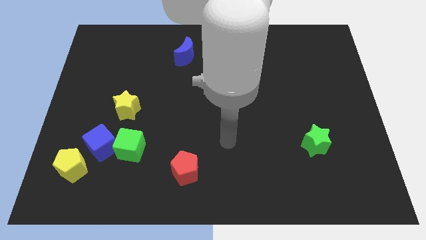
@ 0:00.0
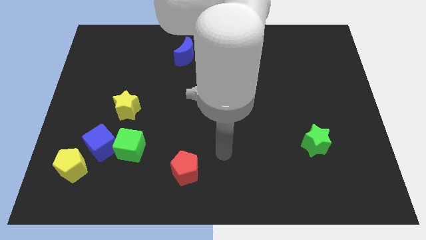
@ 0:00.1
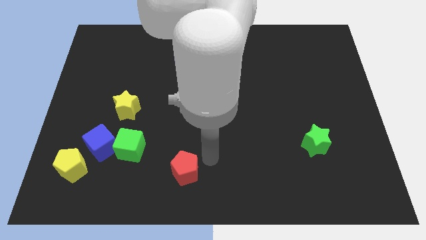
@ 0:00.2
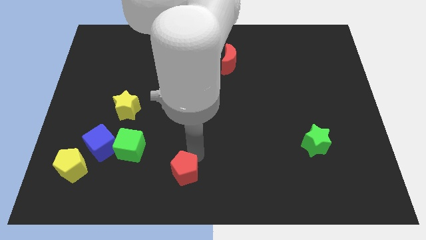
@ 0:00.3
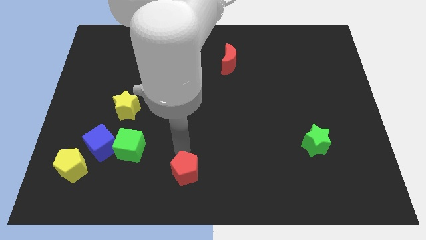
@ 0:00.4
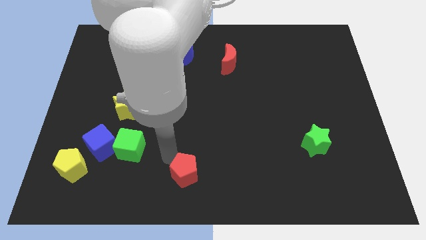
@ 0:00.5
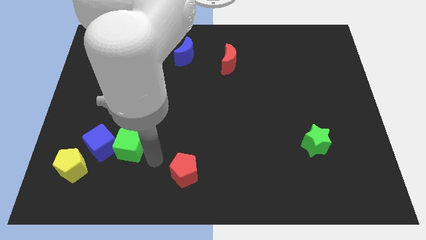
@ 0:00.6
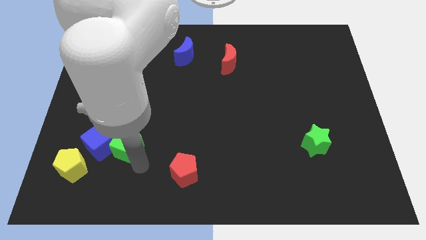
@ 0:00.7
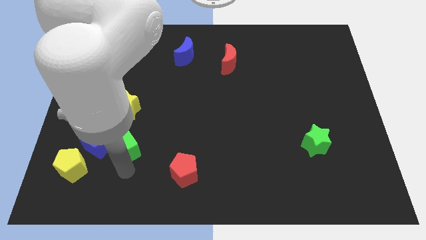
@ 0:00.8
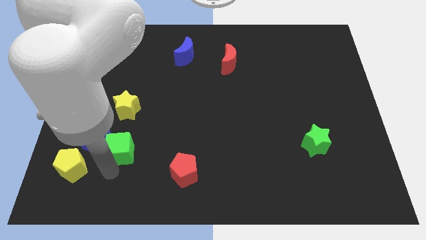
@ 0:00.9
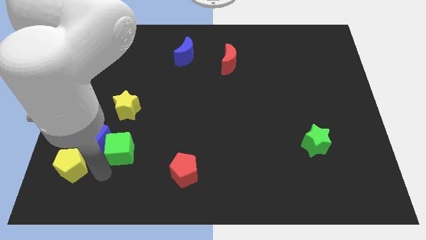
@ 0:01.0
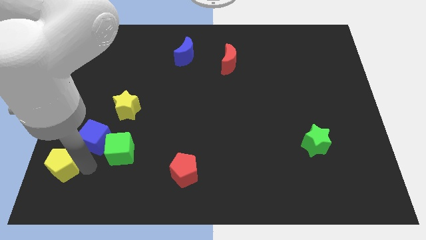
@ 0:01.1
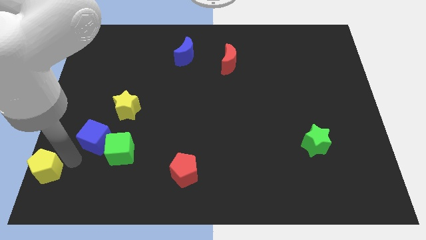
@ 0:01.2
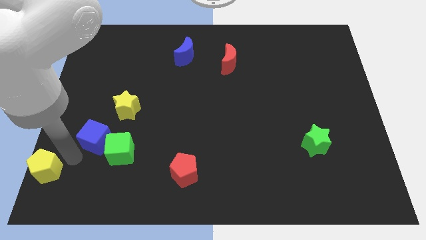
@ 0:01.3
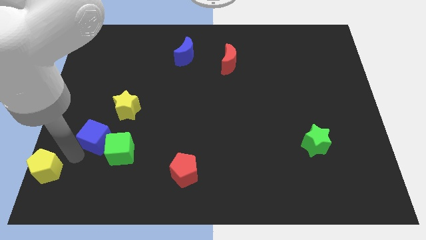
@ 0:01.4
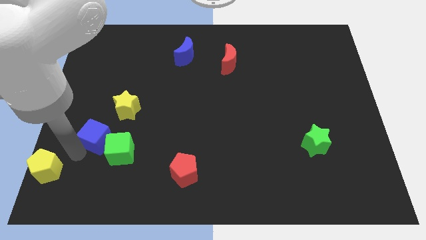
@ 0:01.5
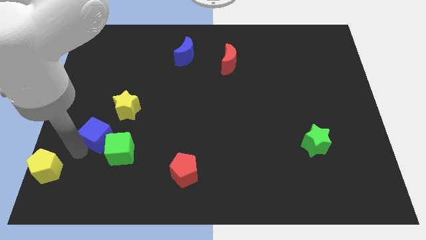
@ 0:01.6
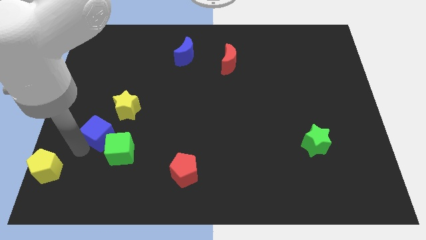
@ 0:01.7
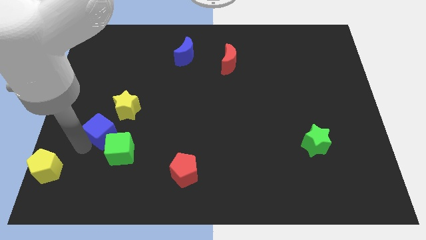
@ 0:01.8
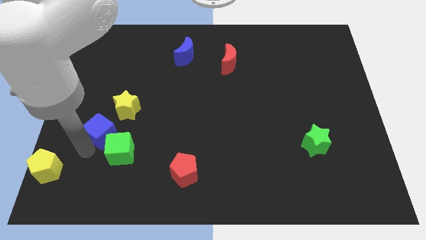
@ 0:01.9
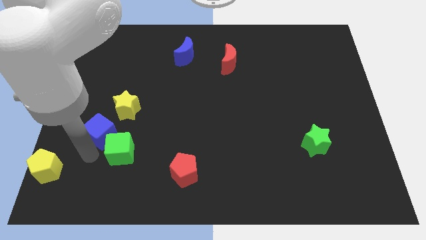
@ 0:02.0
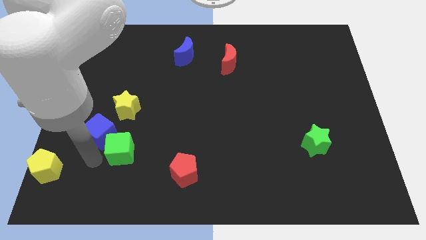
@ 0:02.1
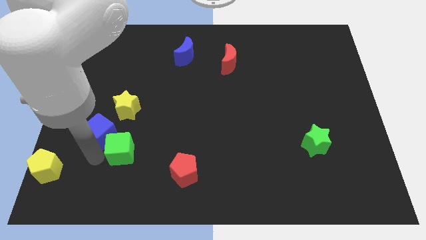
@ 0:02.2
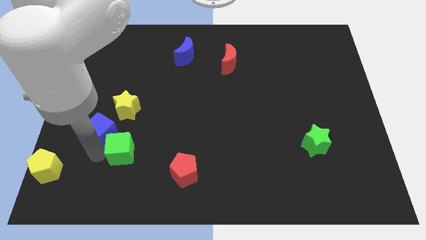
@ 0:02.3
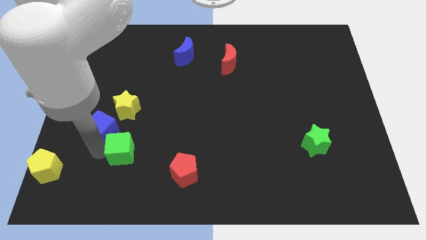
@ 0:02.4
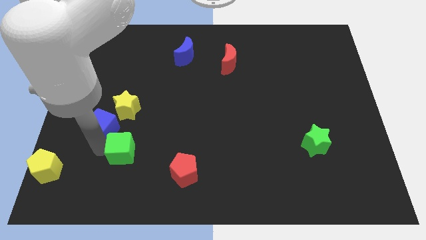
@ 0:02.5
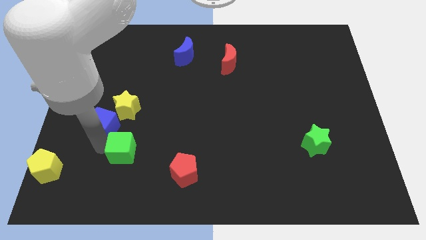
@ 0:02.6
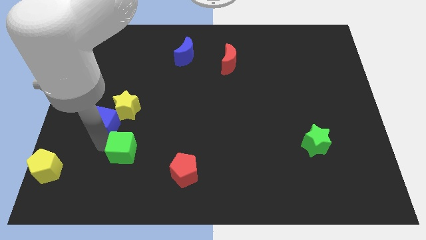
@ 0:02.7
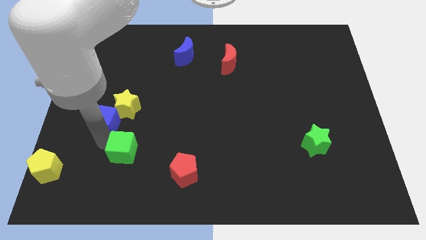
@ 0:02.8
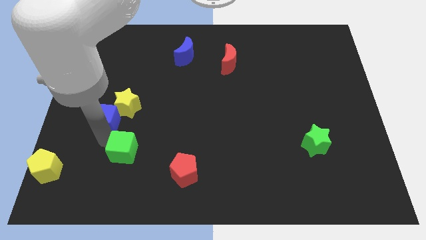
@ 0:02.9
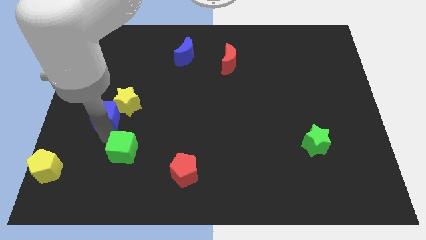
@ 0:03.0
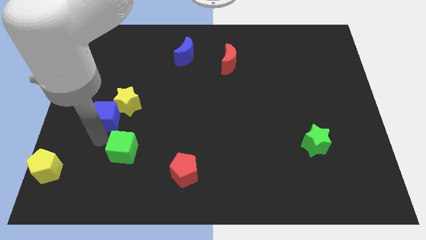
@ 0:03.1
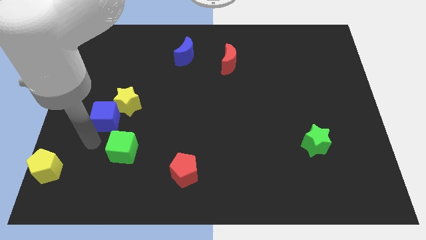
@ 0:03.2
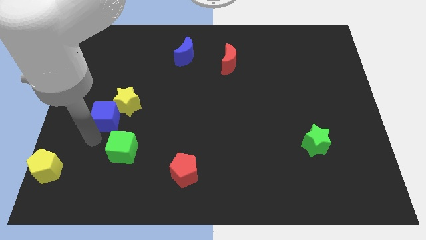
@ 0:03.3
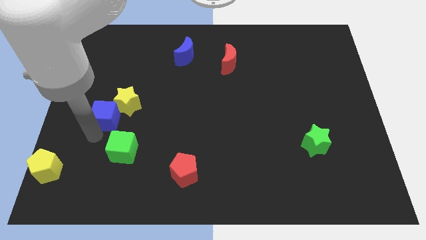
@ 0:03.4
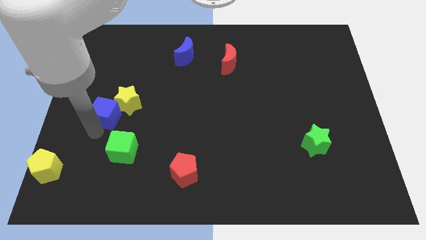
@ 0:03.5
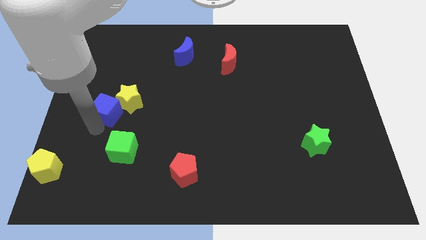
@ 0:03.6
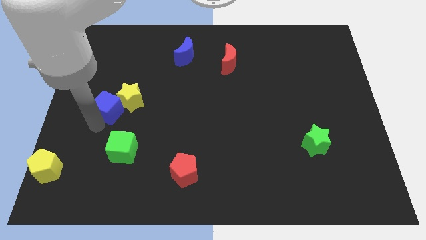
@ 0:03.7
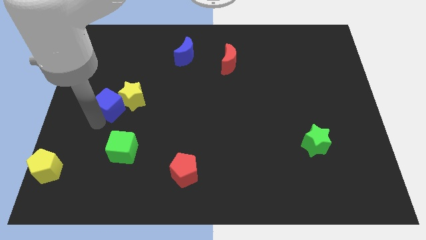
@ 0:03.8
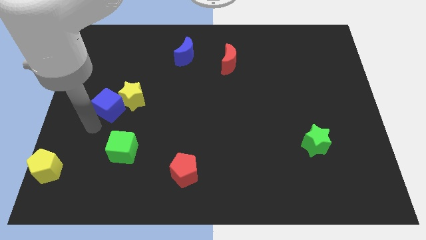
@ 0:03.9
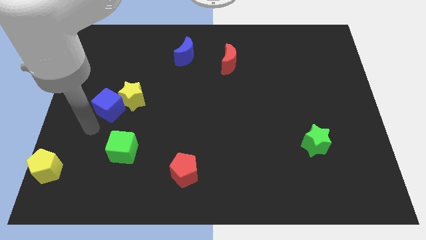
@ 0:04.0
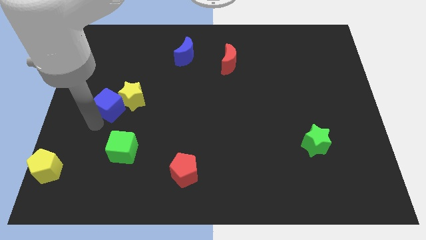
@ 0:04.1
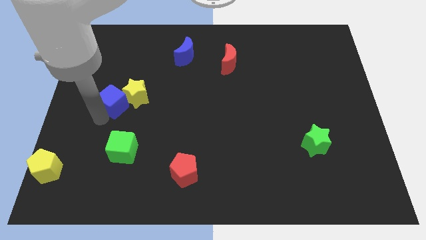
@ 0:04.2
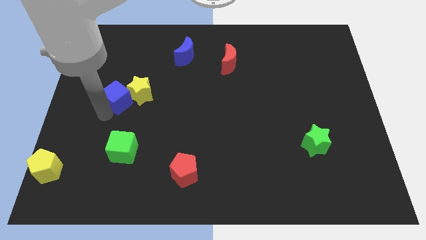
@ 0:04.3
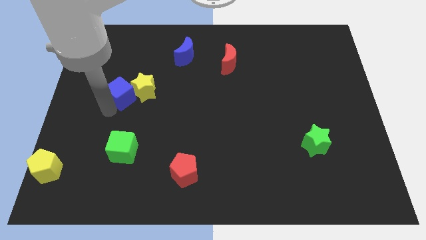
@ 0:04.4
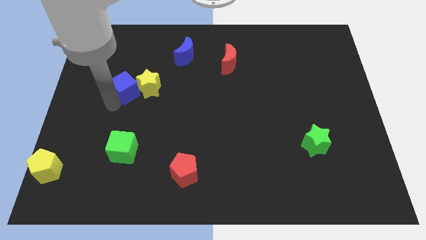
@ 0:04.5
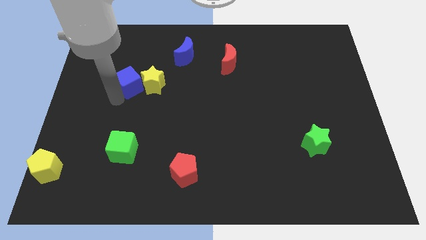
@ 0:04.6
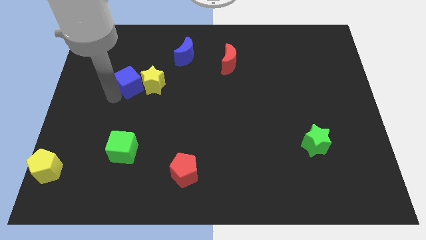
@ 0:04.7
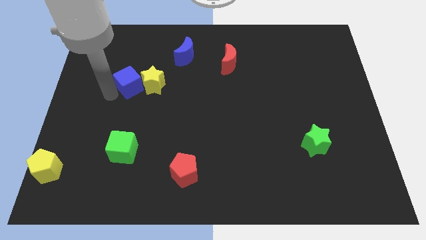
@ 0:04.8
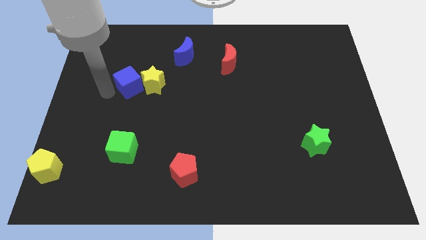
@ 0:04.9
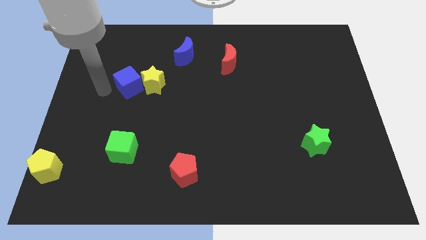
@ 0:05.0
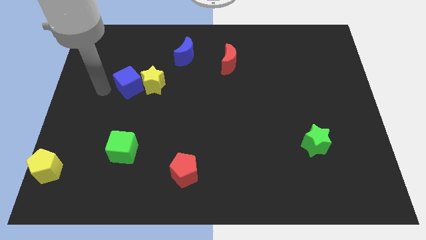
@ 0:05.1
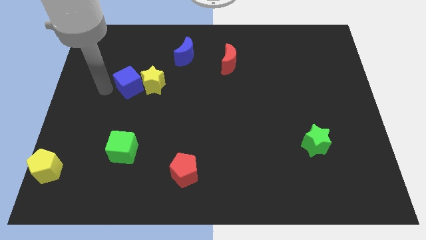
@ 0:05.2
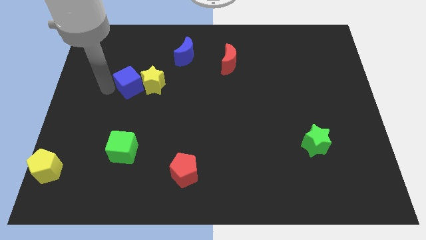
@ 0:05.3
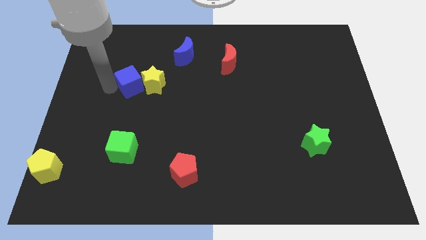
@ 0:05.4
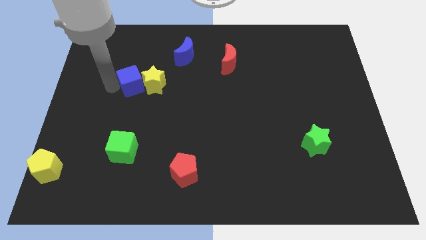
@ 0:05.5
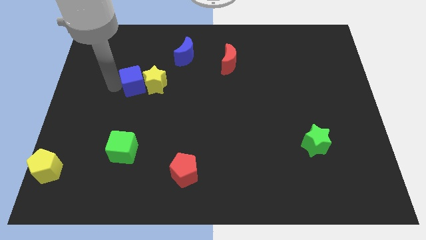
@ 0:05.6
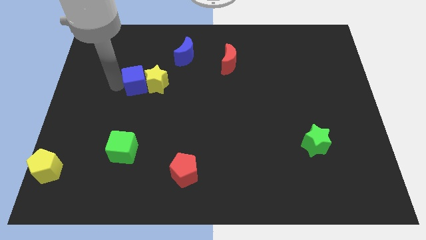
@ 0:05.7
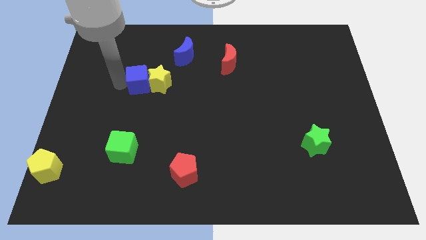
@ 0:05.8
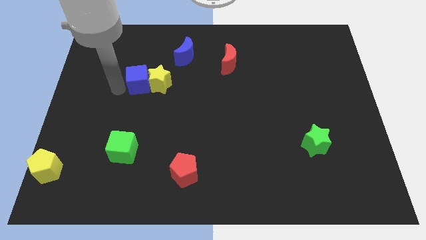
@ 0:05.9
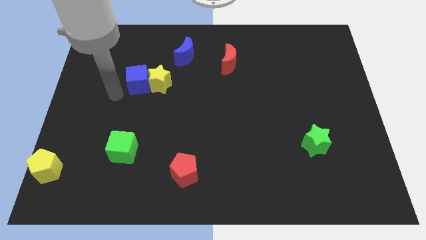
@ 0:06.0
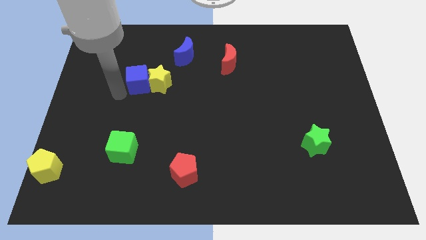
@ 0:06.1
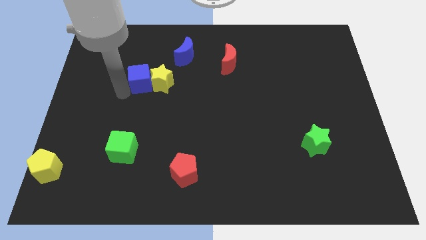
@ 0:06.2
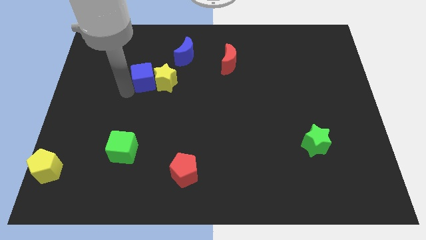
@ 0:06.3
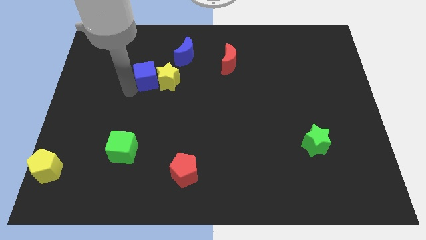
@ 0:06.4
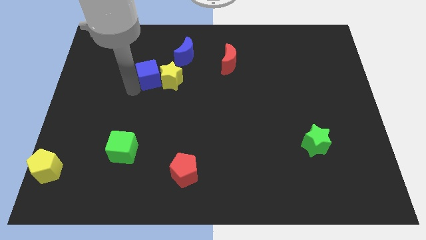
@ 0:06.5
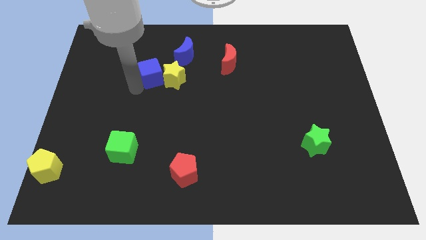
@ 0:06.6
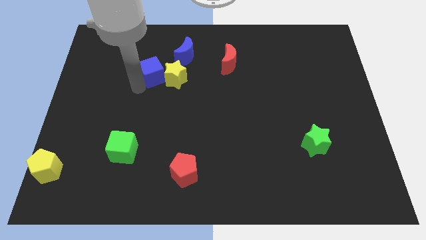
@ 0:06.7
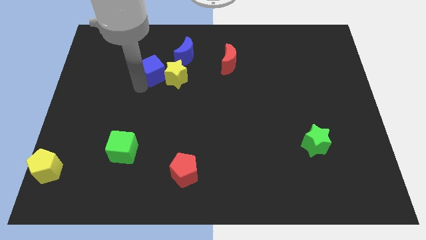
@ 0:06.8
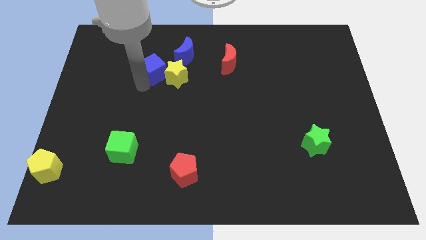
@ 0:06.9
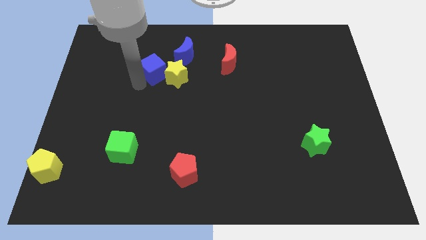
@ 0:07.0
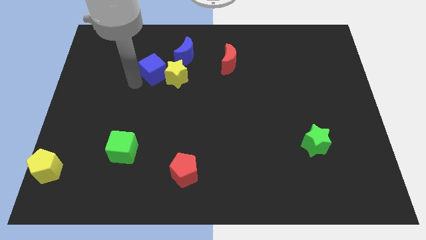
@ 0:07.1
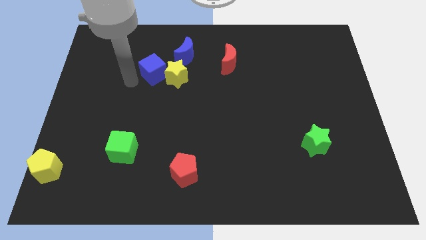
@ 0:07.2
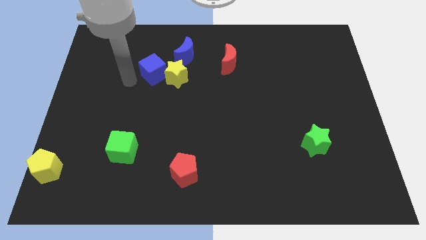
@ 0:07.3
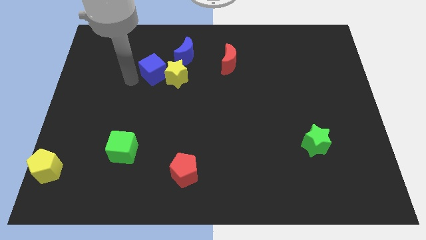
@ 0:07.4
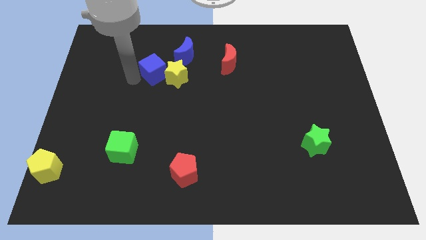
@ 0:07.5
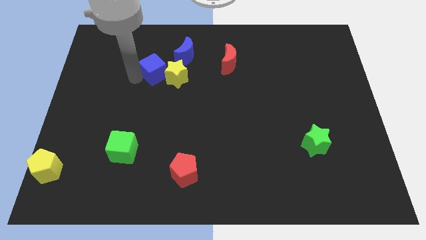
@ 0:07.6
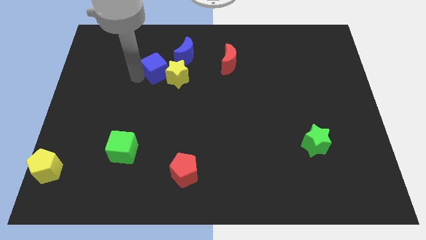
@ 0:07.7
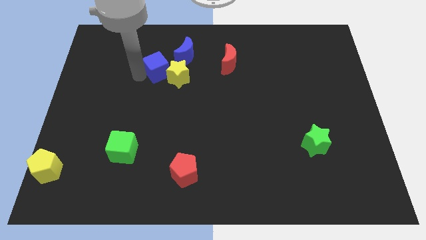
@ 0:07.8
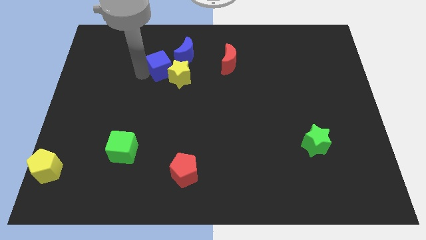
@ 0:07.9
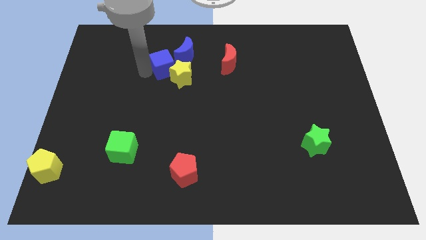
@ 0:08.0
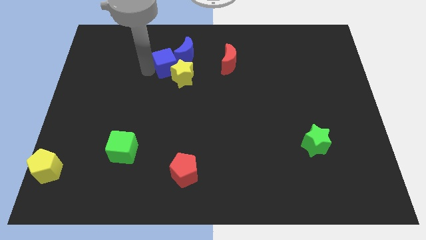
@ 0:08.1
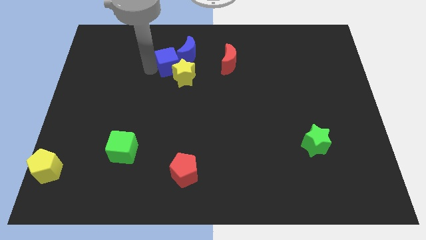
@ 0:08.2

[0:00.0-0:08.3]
put the blue cube just left of the red moon
